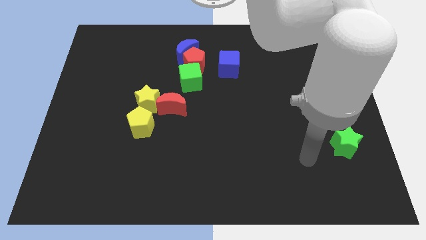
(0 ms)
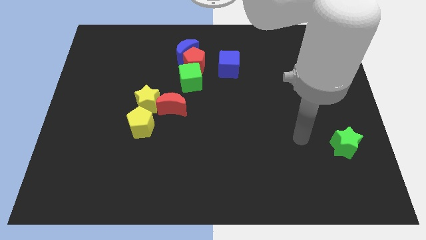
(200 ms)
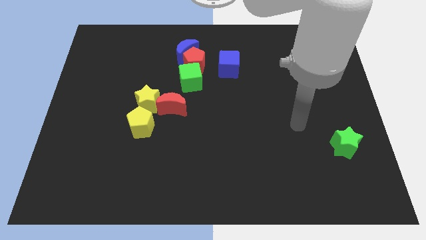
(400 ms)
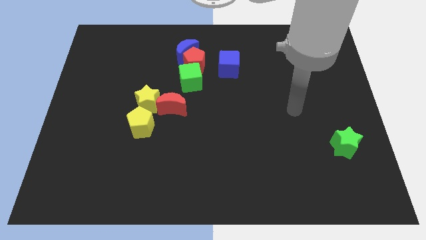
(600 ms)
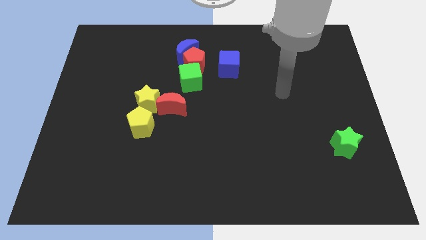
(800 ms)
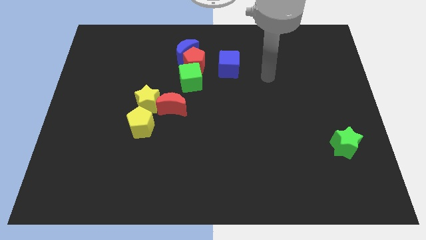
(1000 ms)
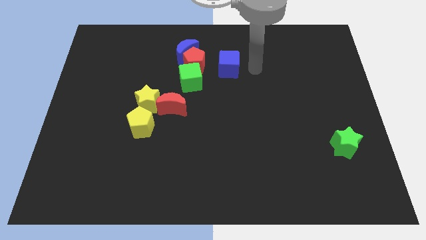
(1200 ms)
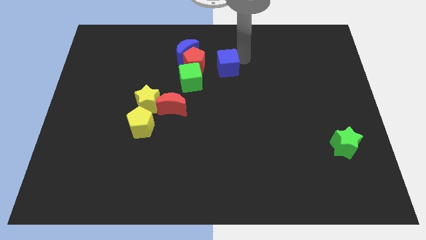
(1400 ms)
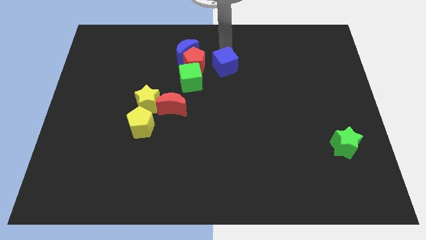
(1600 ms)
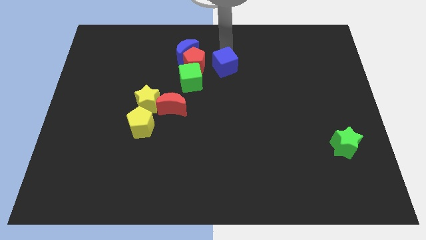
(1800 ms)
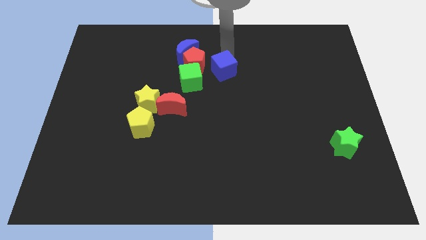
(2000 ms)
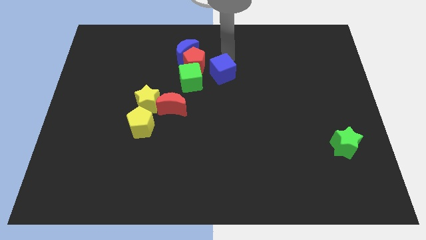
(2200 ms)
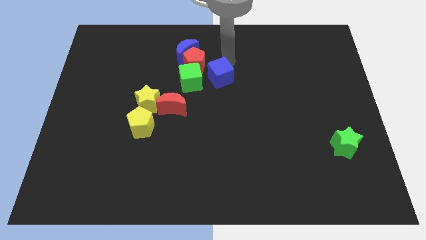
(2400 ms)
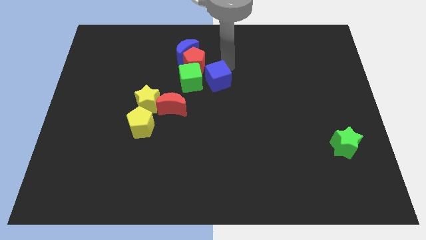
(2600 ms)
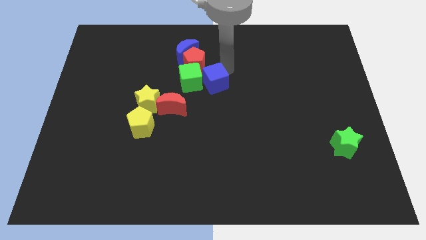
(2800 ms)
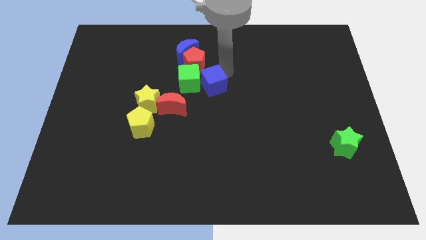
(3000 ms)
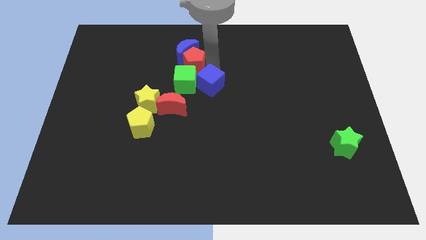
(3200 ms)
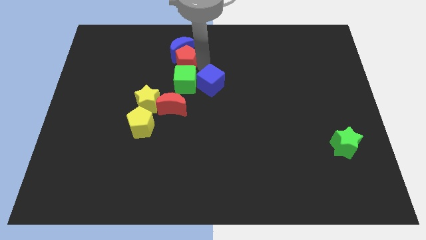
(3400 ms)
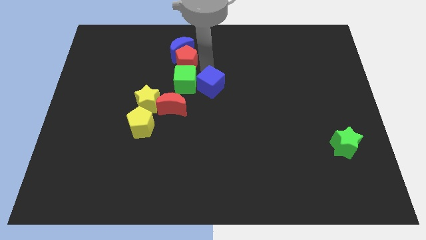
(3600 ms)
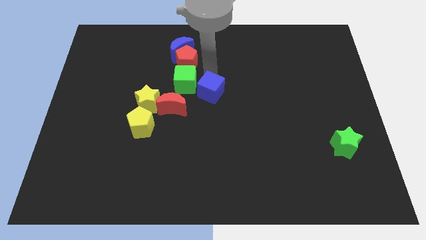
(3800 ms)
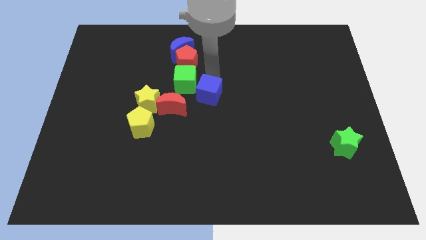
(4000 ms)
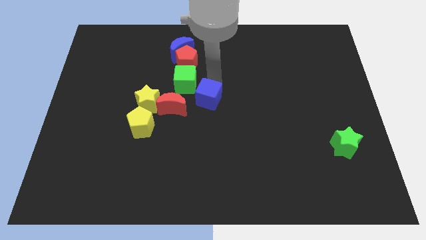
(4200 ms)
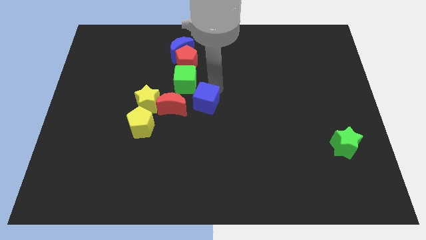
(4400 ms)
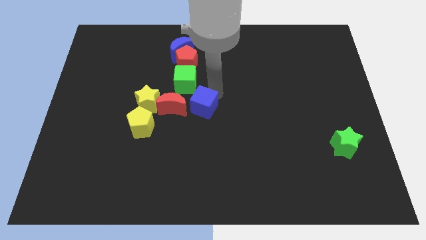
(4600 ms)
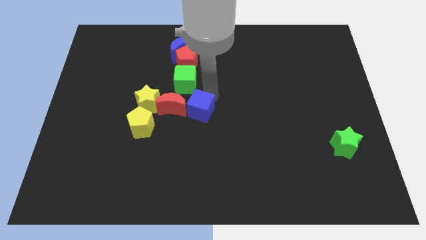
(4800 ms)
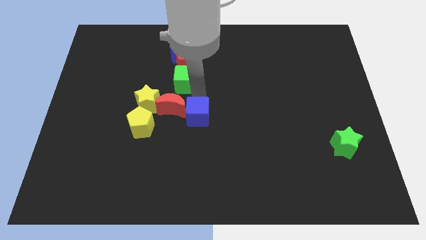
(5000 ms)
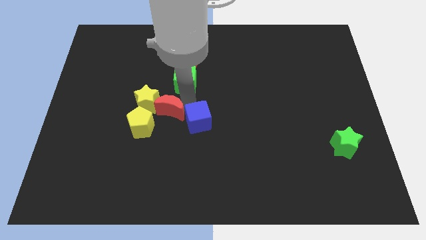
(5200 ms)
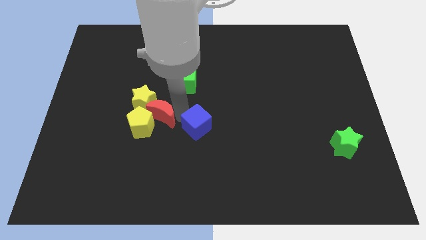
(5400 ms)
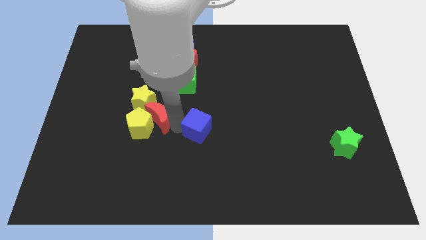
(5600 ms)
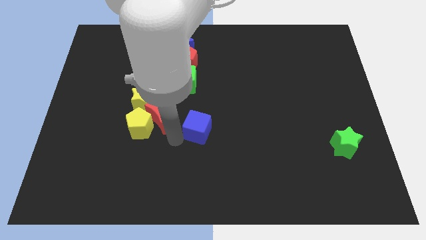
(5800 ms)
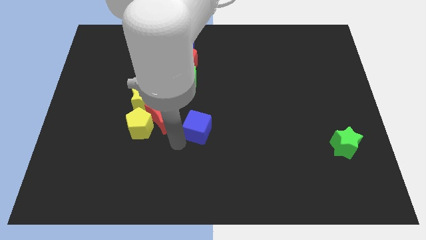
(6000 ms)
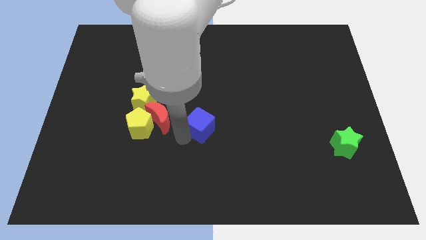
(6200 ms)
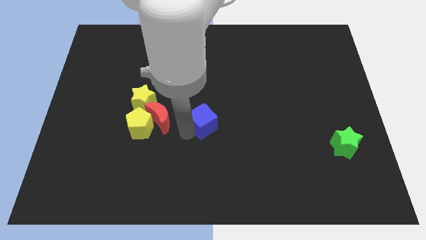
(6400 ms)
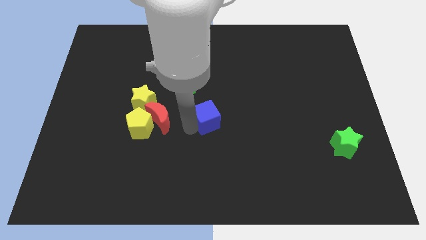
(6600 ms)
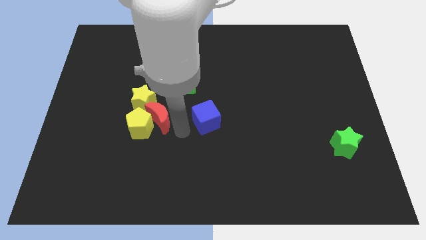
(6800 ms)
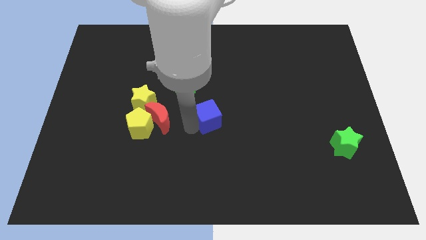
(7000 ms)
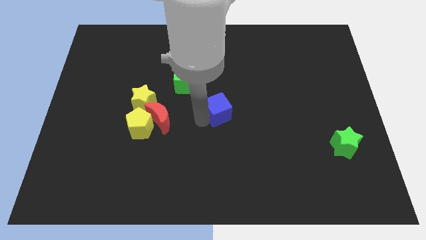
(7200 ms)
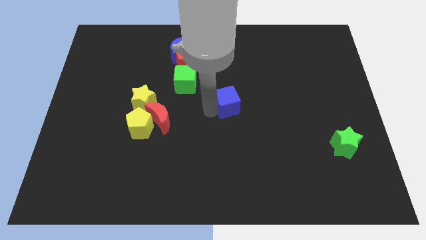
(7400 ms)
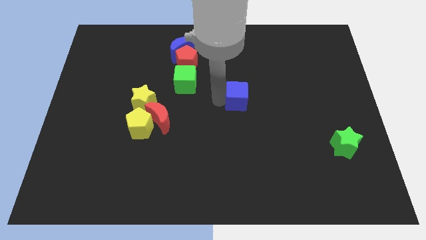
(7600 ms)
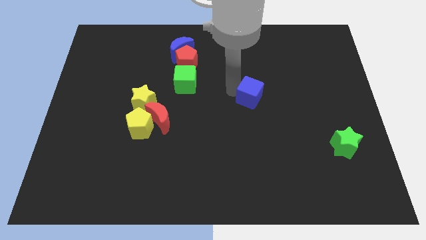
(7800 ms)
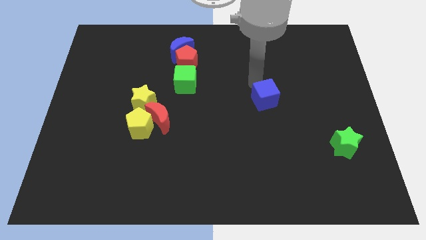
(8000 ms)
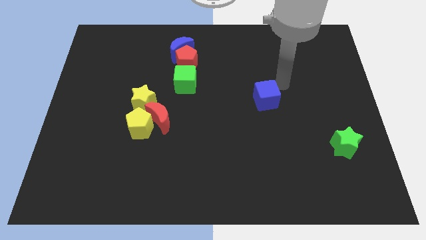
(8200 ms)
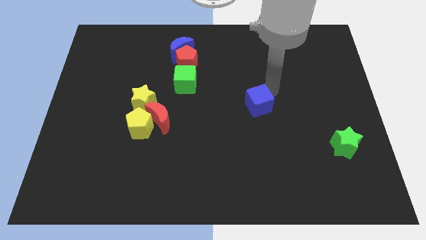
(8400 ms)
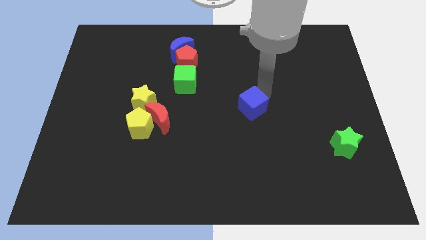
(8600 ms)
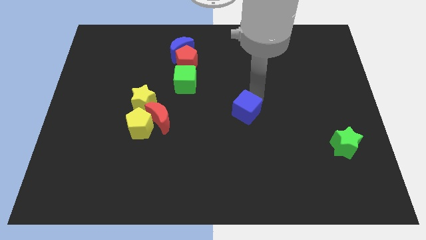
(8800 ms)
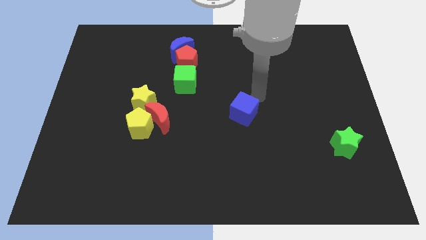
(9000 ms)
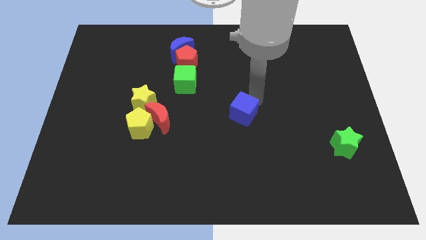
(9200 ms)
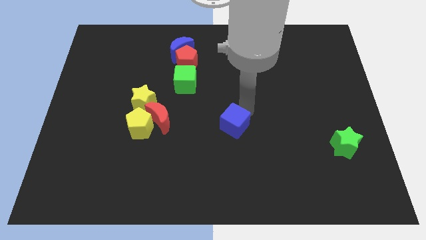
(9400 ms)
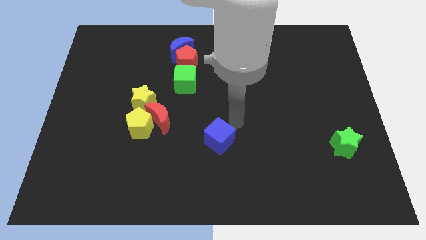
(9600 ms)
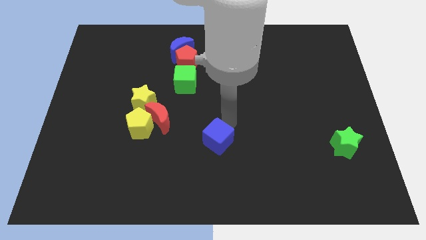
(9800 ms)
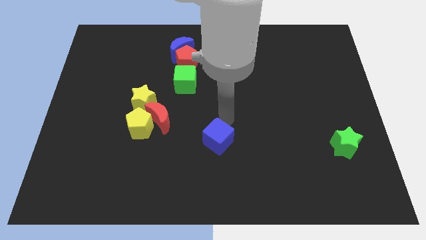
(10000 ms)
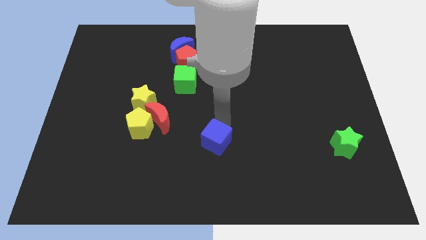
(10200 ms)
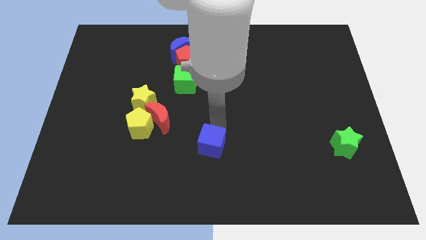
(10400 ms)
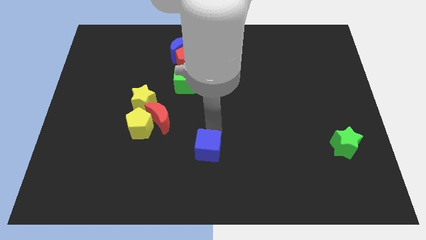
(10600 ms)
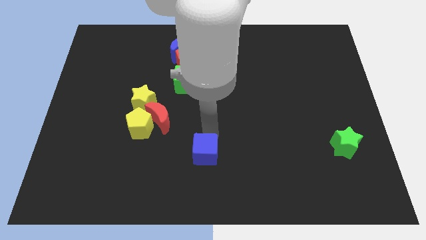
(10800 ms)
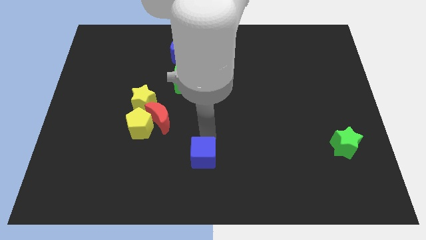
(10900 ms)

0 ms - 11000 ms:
push the blue cube to the bottom

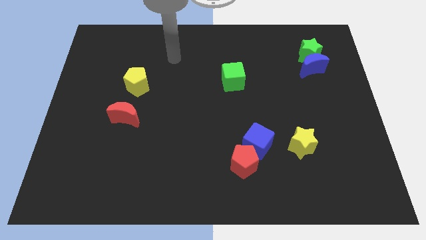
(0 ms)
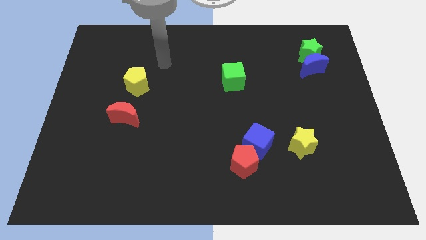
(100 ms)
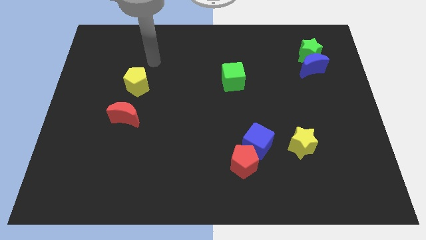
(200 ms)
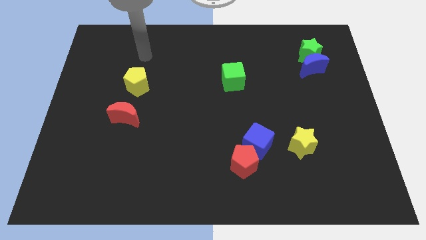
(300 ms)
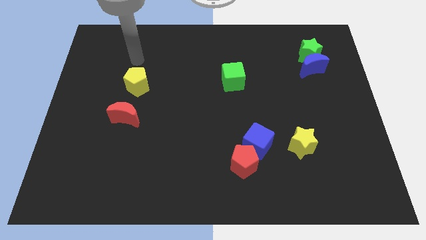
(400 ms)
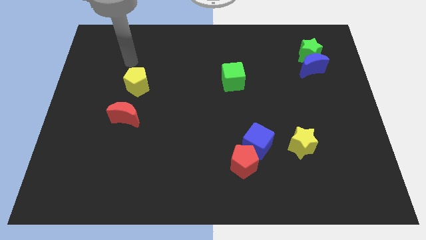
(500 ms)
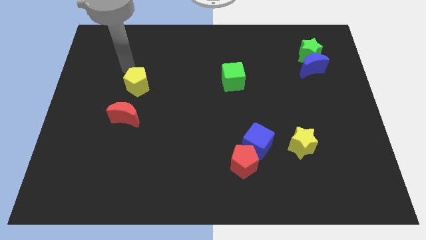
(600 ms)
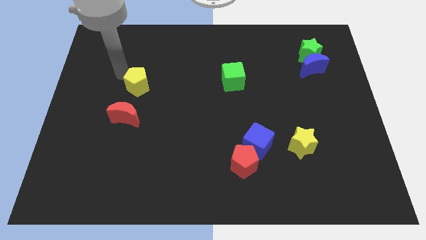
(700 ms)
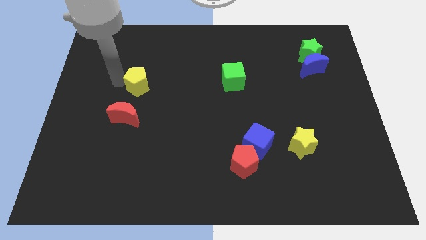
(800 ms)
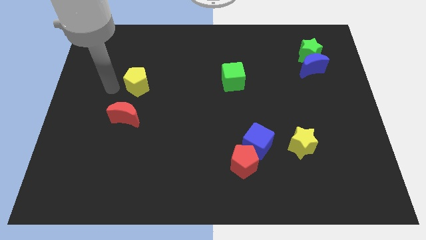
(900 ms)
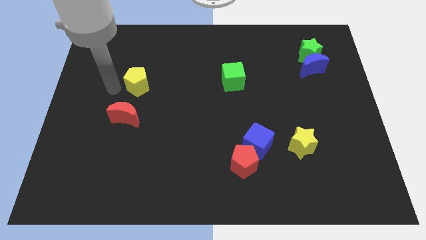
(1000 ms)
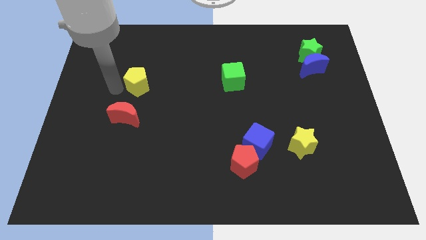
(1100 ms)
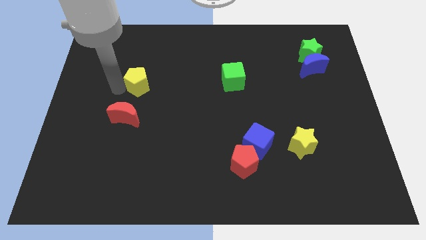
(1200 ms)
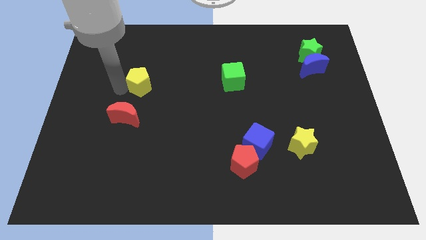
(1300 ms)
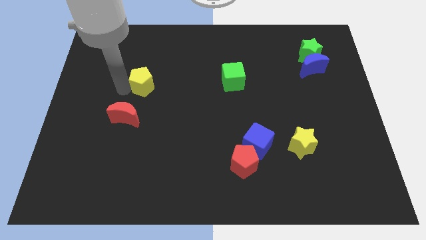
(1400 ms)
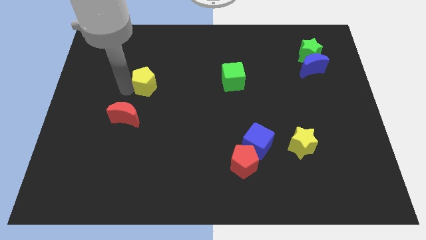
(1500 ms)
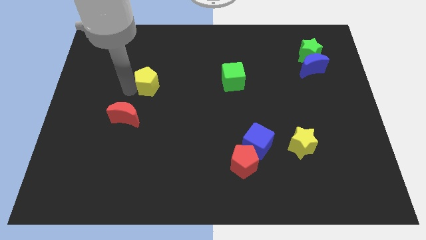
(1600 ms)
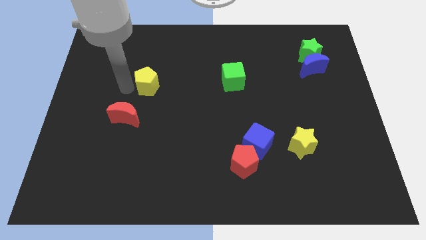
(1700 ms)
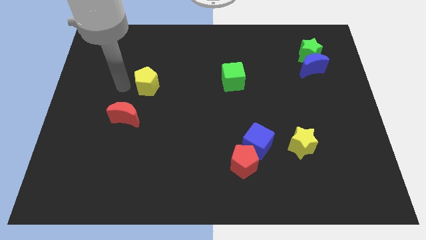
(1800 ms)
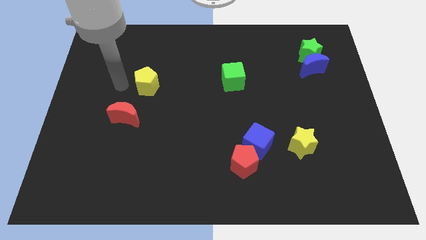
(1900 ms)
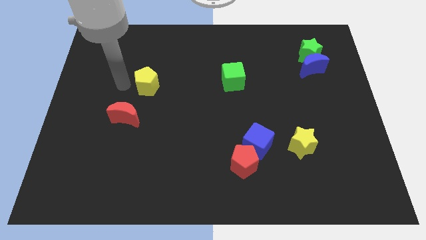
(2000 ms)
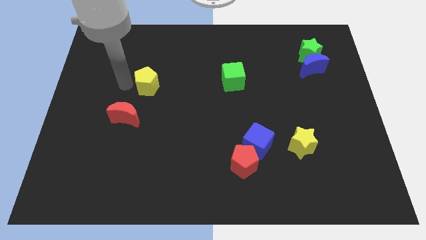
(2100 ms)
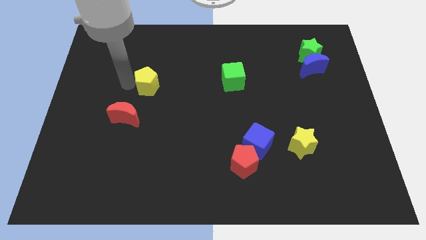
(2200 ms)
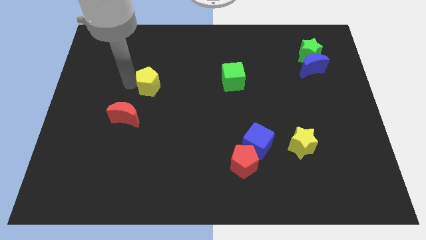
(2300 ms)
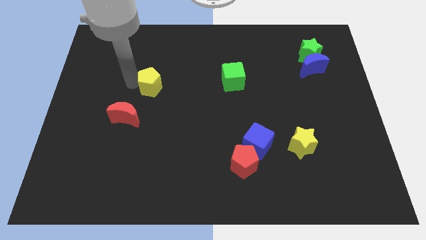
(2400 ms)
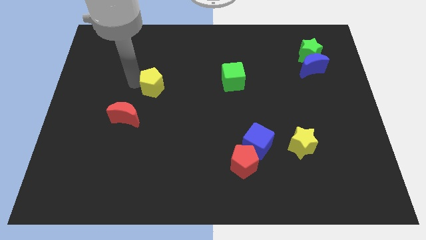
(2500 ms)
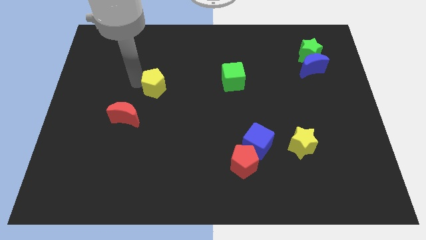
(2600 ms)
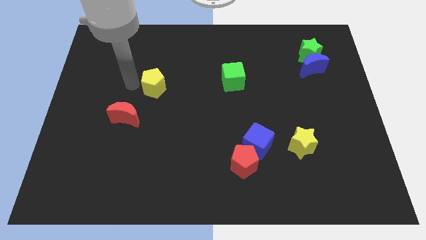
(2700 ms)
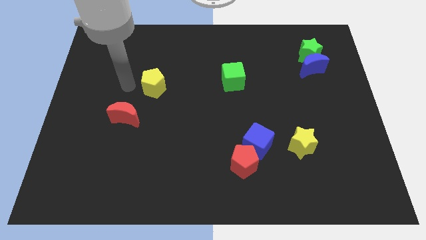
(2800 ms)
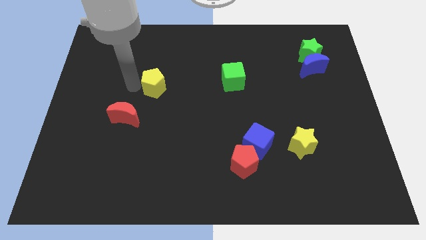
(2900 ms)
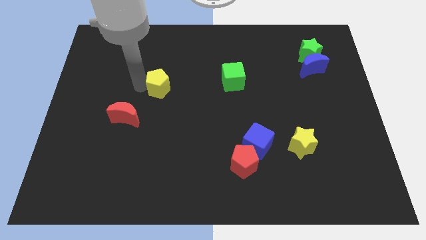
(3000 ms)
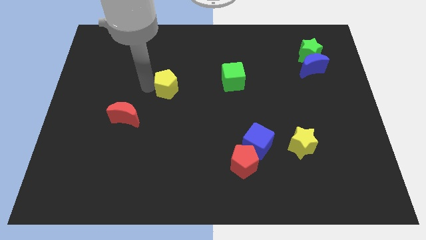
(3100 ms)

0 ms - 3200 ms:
slide the yellow pentagon to the center of the board
